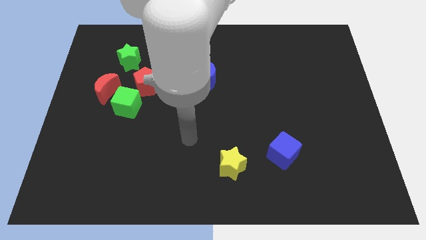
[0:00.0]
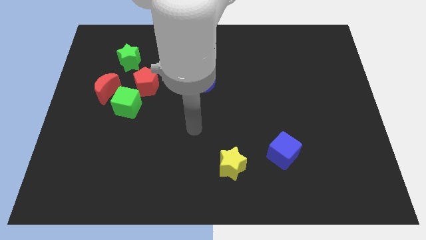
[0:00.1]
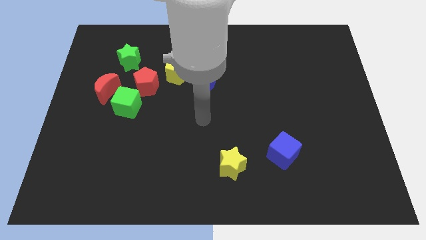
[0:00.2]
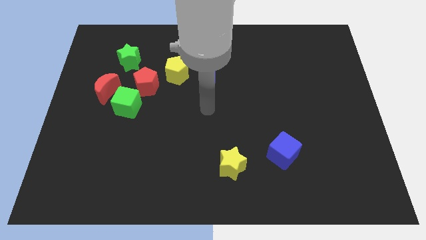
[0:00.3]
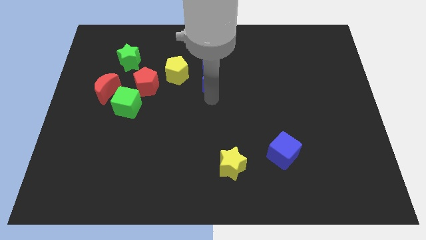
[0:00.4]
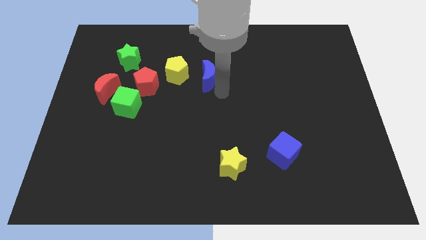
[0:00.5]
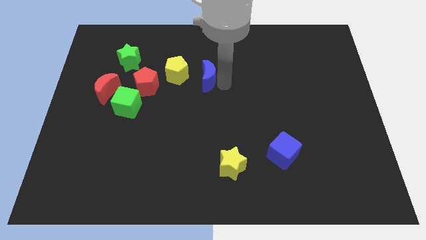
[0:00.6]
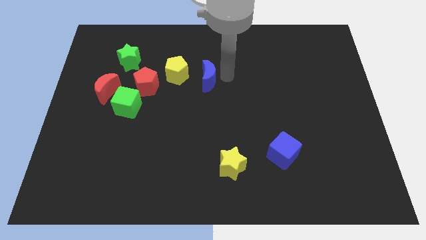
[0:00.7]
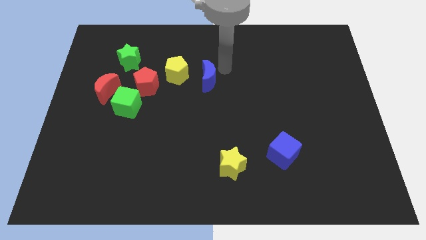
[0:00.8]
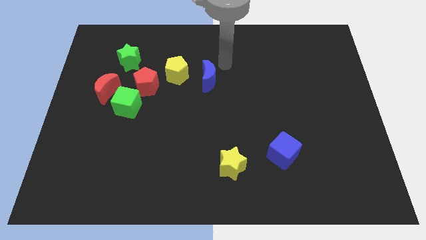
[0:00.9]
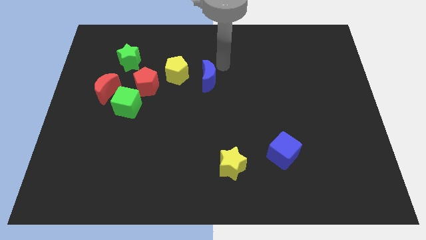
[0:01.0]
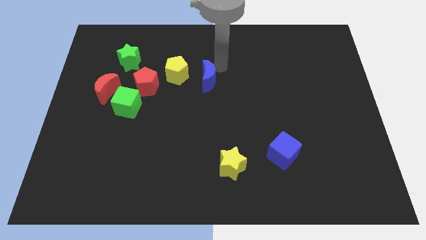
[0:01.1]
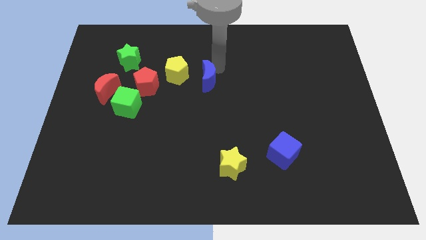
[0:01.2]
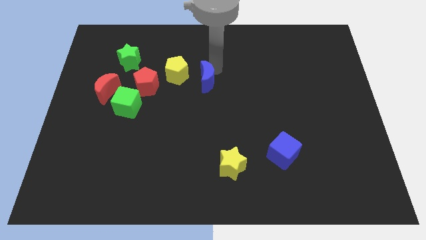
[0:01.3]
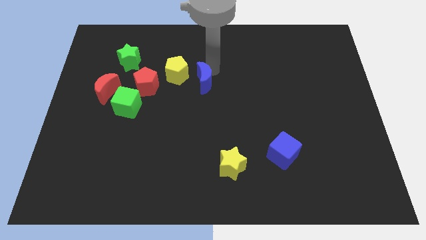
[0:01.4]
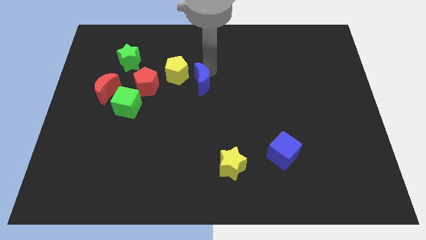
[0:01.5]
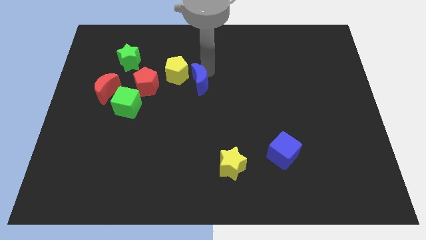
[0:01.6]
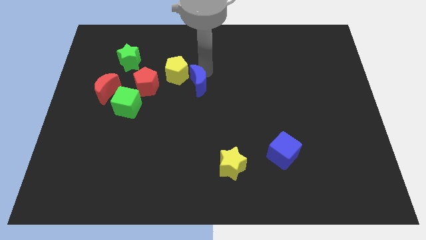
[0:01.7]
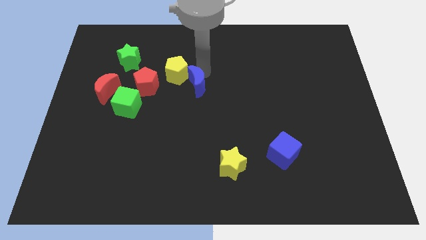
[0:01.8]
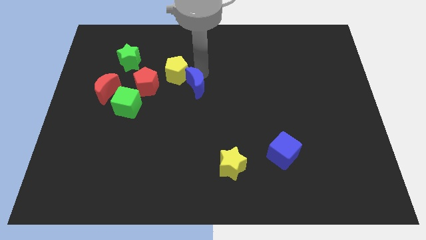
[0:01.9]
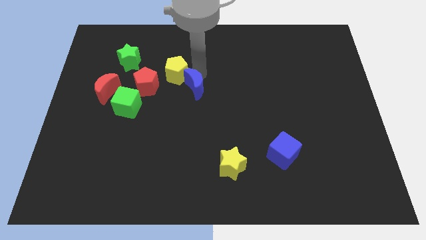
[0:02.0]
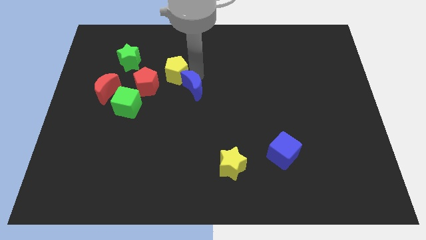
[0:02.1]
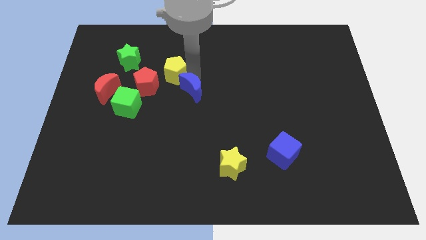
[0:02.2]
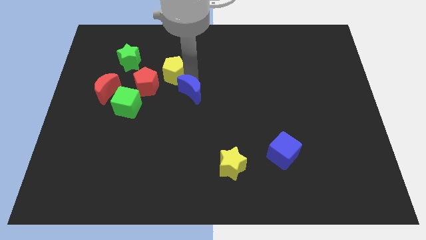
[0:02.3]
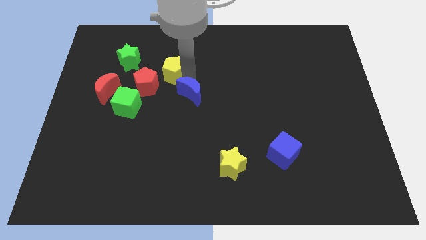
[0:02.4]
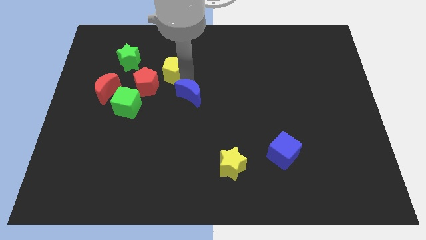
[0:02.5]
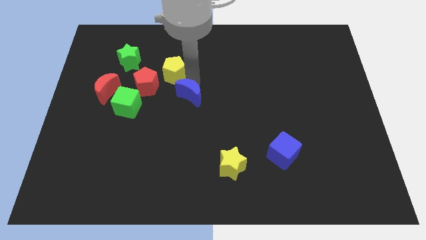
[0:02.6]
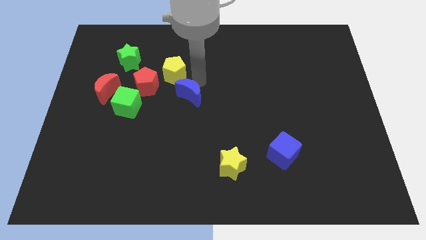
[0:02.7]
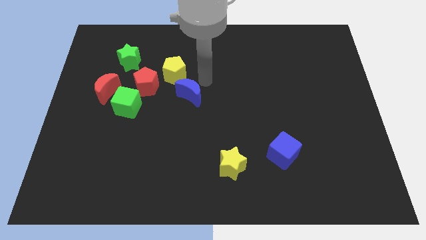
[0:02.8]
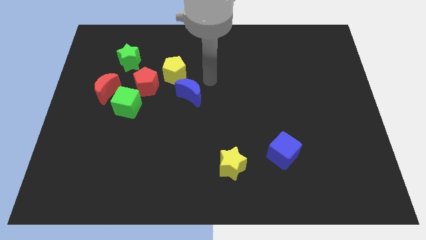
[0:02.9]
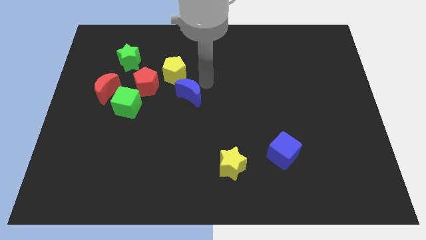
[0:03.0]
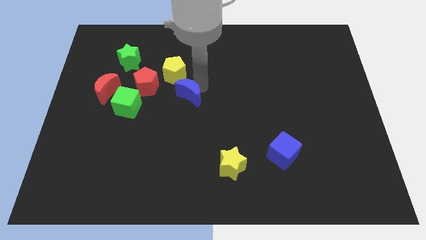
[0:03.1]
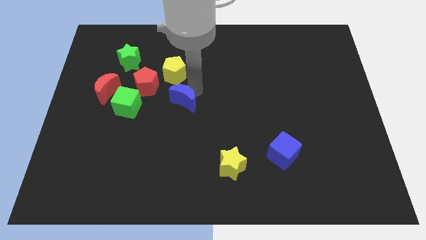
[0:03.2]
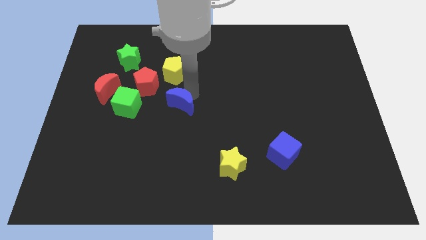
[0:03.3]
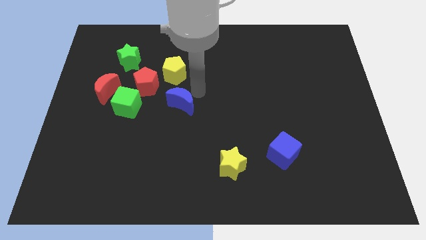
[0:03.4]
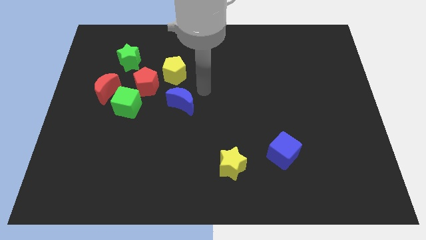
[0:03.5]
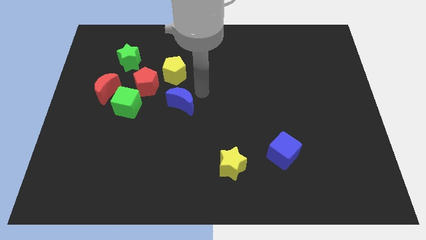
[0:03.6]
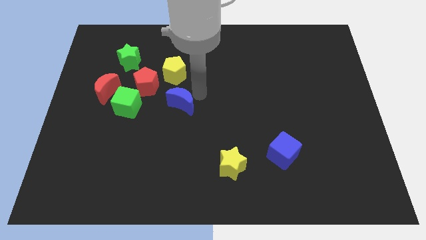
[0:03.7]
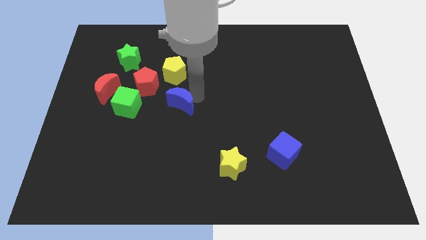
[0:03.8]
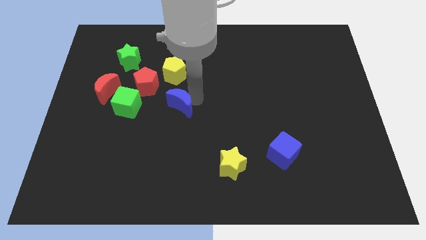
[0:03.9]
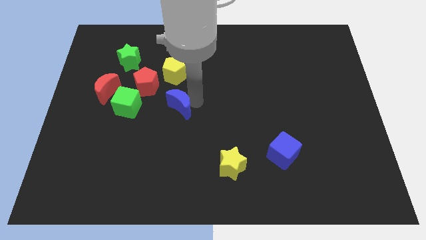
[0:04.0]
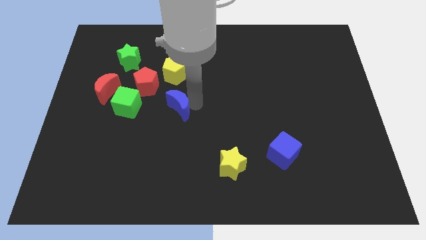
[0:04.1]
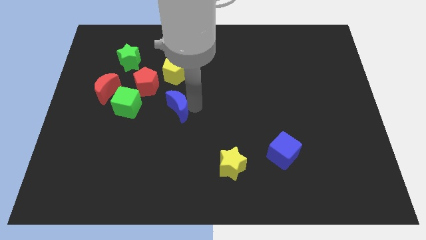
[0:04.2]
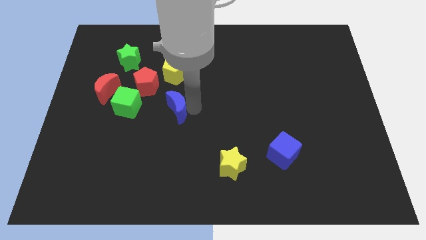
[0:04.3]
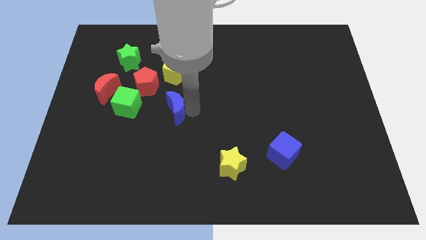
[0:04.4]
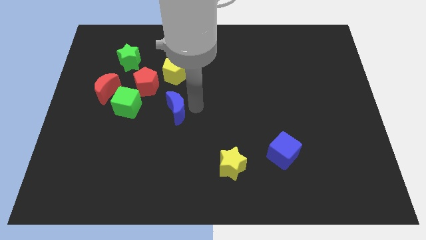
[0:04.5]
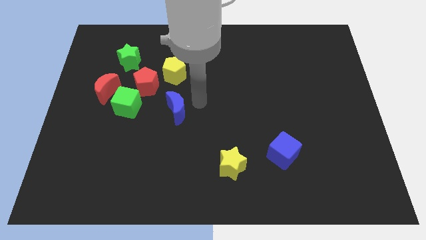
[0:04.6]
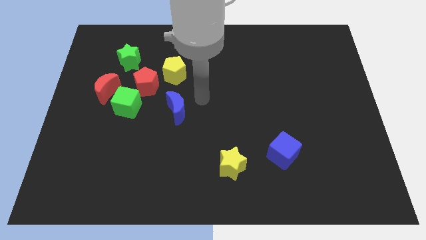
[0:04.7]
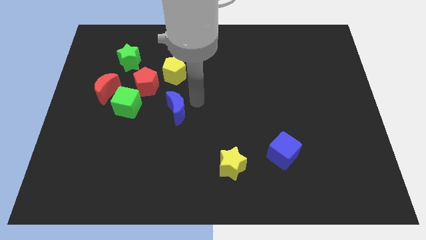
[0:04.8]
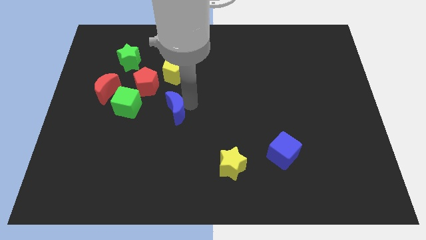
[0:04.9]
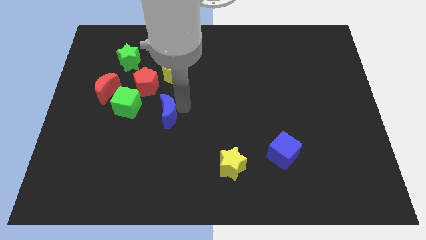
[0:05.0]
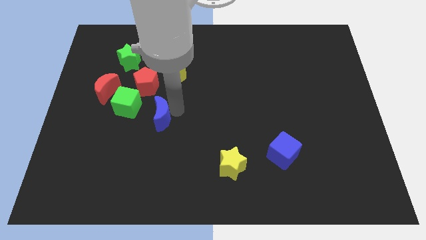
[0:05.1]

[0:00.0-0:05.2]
push the blue moon to the bottom right of the green cube

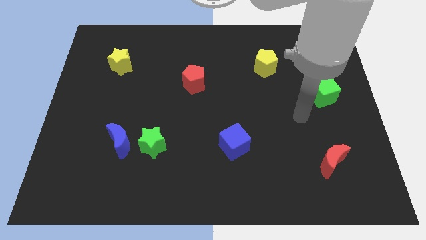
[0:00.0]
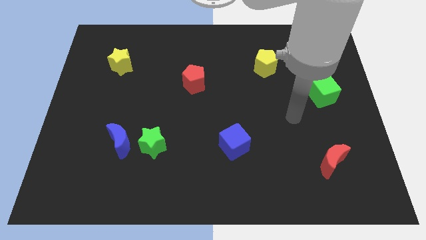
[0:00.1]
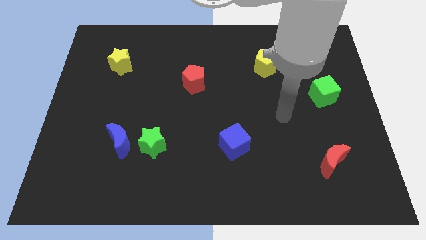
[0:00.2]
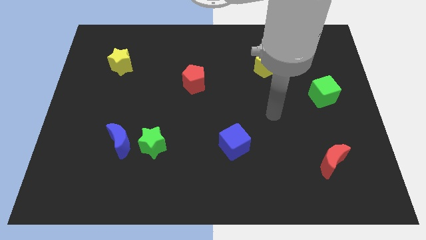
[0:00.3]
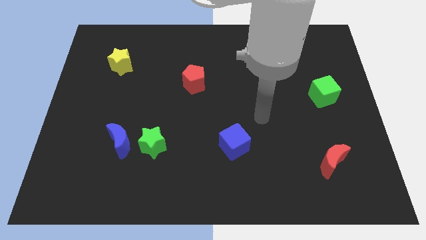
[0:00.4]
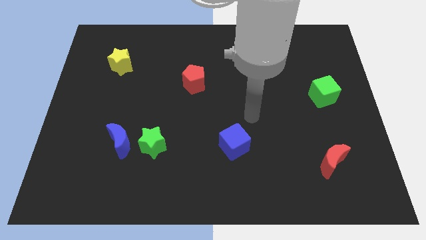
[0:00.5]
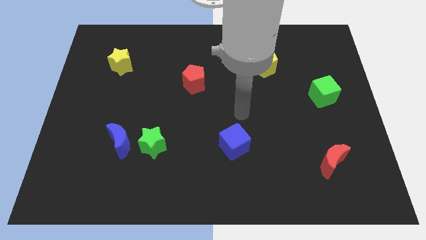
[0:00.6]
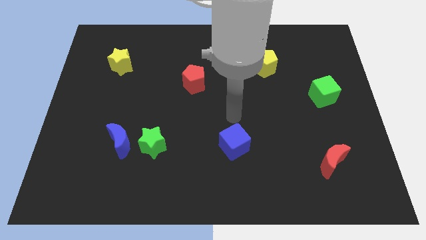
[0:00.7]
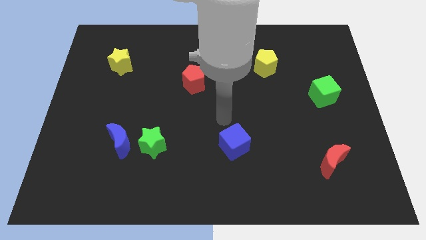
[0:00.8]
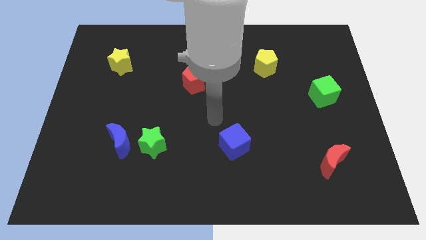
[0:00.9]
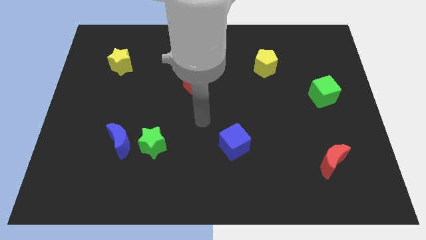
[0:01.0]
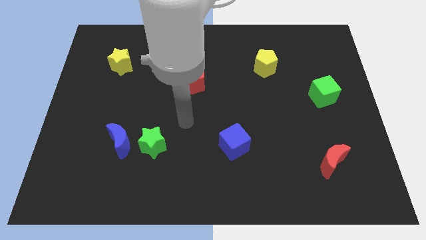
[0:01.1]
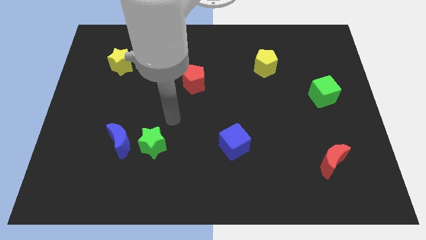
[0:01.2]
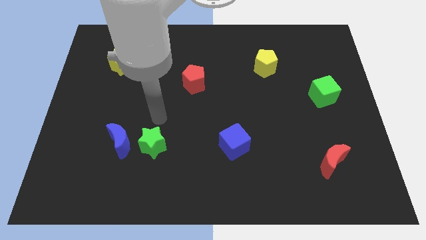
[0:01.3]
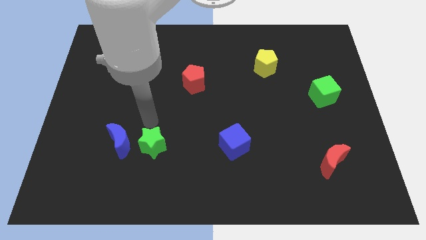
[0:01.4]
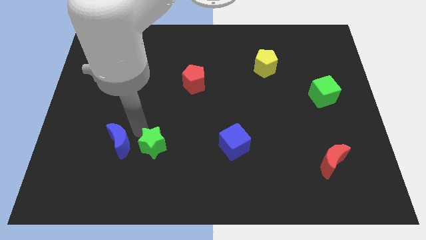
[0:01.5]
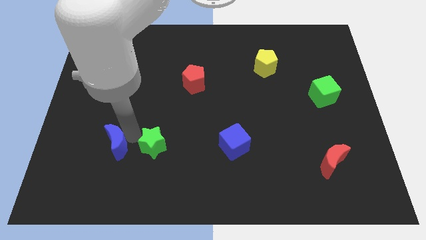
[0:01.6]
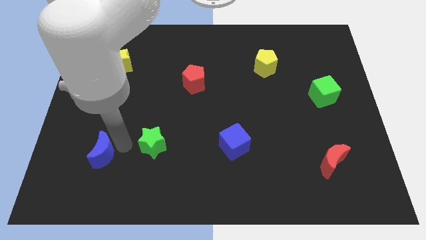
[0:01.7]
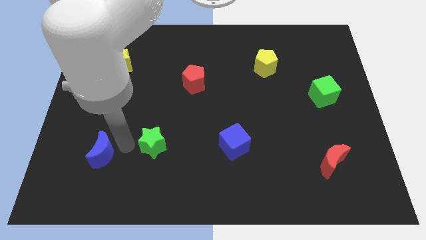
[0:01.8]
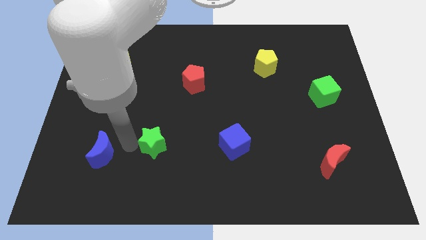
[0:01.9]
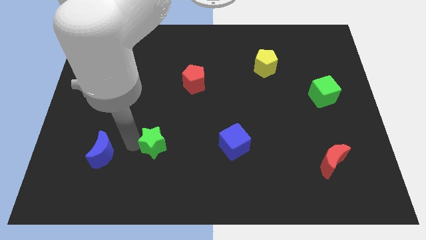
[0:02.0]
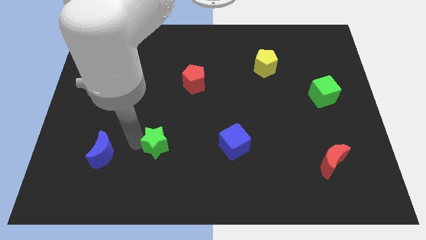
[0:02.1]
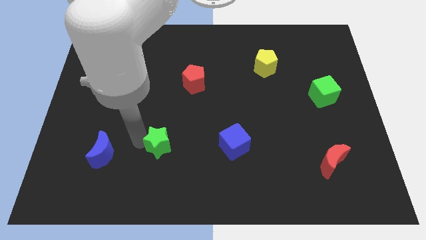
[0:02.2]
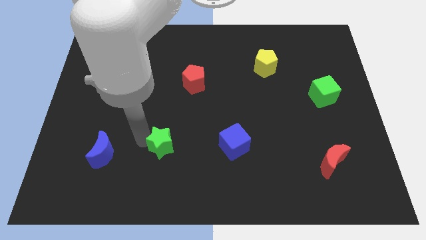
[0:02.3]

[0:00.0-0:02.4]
push the green star left of the blue cube
